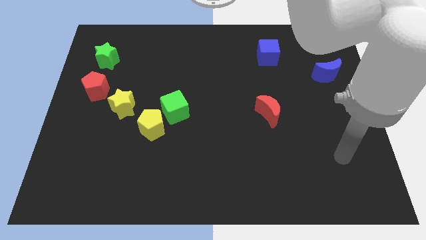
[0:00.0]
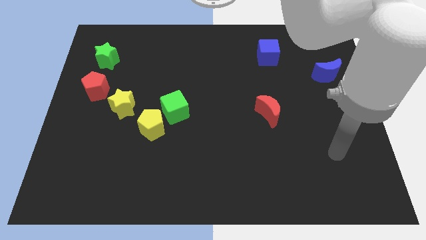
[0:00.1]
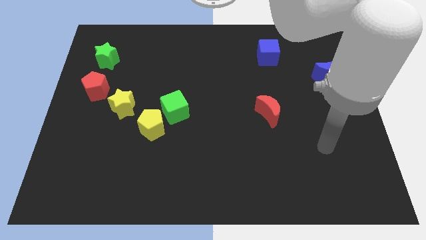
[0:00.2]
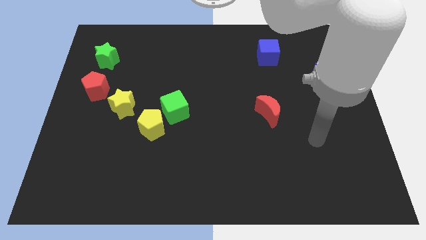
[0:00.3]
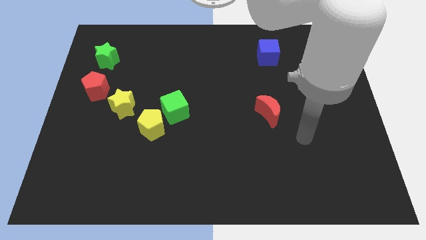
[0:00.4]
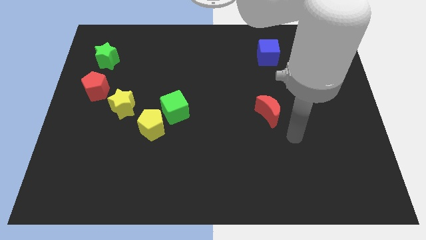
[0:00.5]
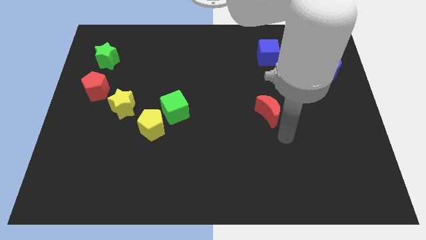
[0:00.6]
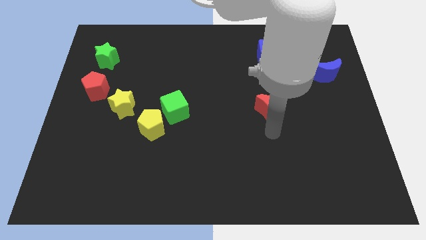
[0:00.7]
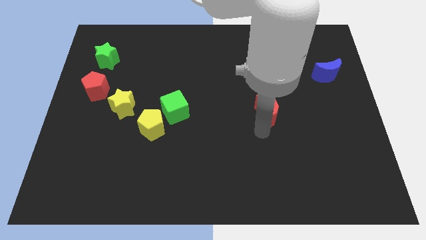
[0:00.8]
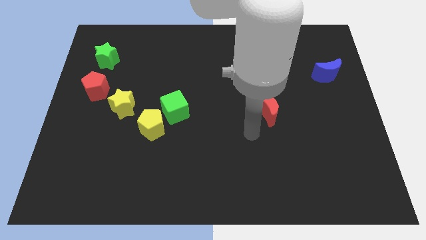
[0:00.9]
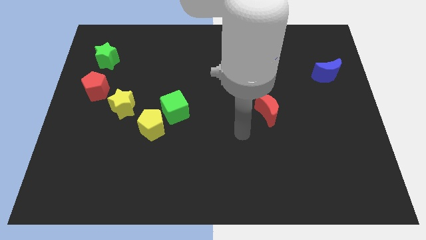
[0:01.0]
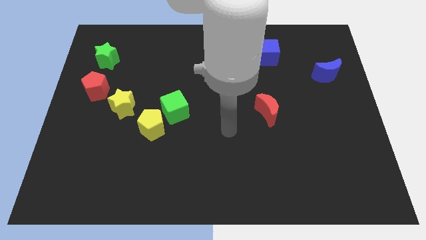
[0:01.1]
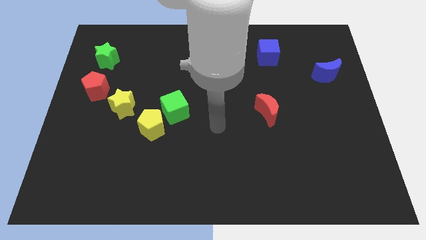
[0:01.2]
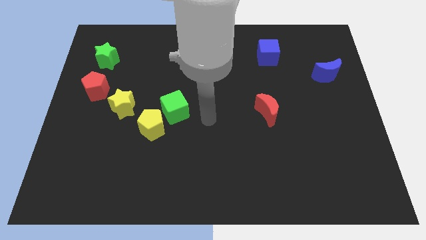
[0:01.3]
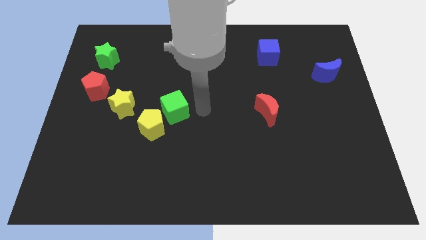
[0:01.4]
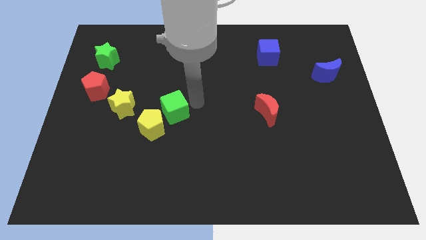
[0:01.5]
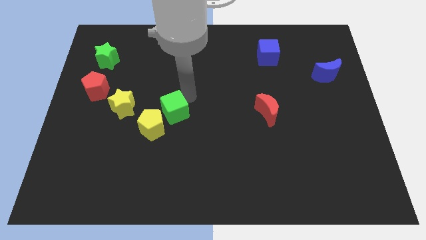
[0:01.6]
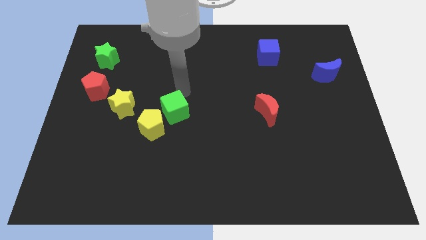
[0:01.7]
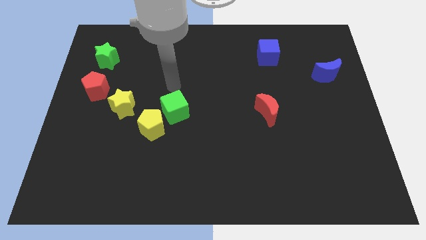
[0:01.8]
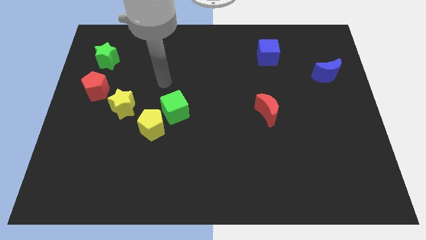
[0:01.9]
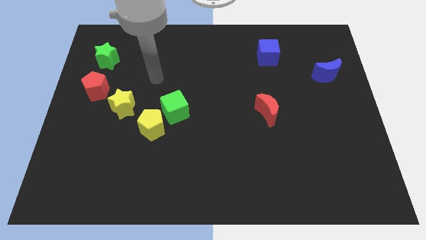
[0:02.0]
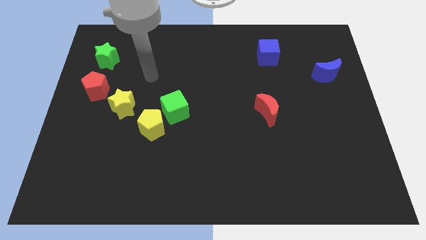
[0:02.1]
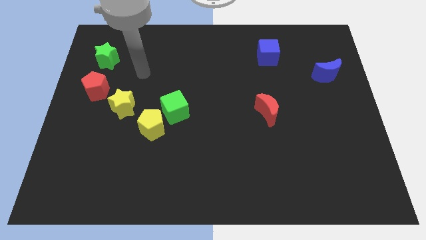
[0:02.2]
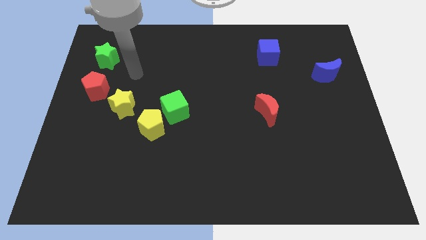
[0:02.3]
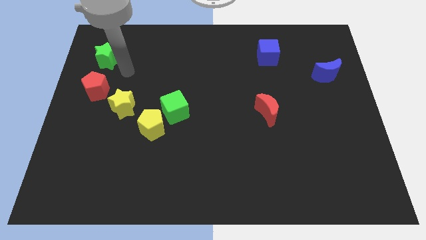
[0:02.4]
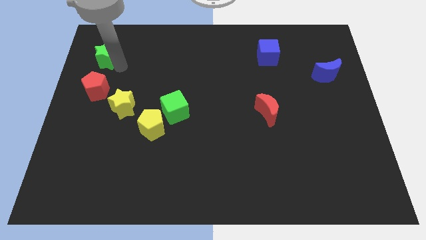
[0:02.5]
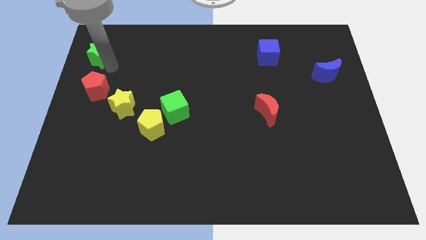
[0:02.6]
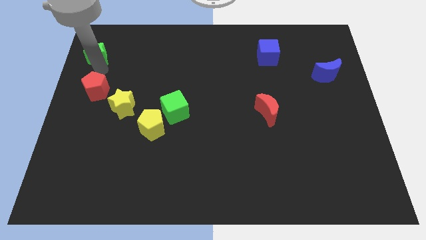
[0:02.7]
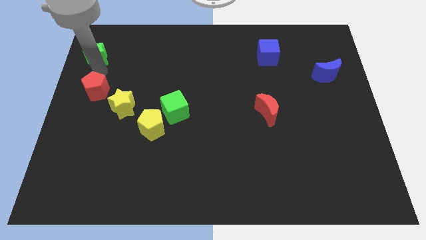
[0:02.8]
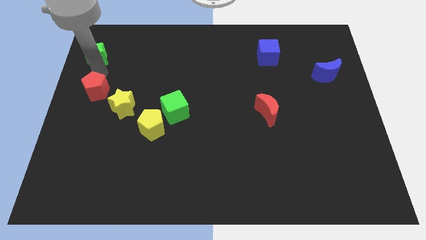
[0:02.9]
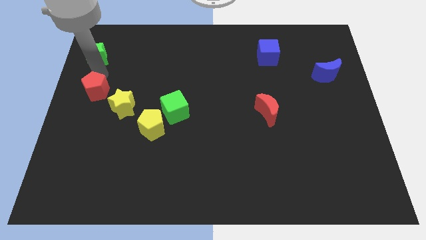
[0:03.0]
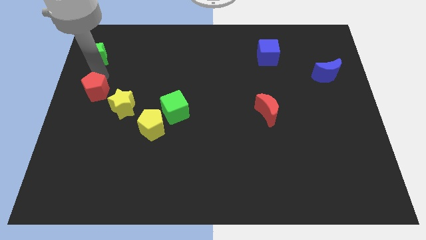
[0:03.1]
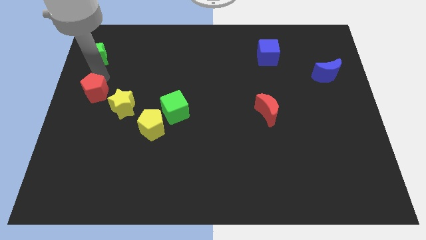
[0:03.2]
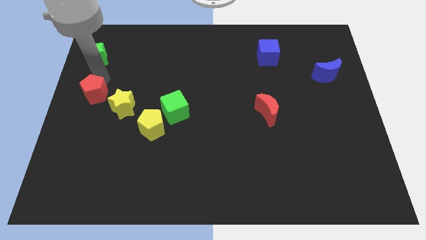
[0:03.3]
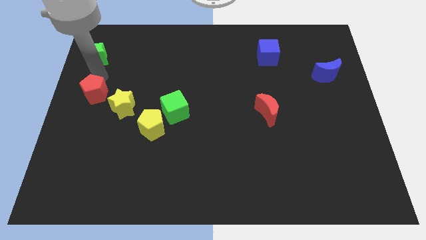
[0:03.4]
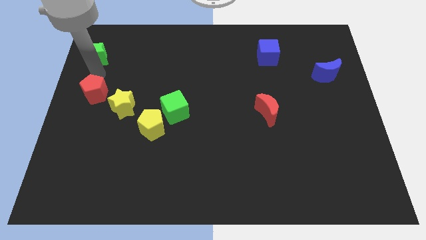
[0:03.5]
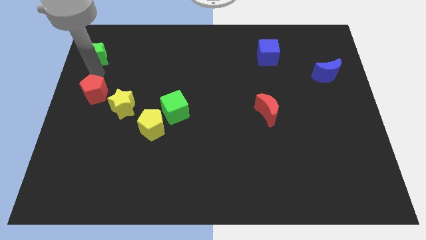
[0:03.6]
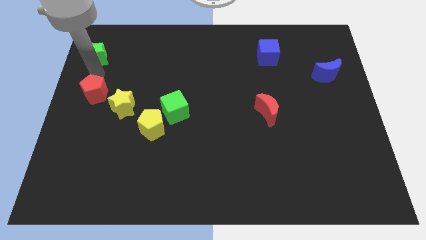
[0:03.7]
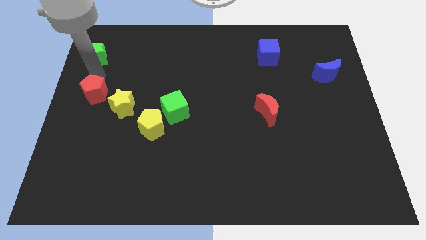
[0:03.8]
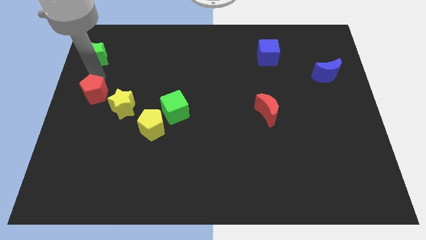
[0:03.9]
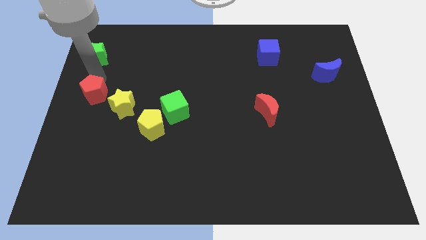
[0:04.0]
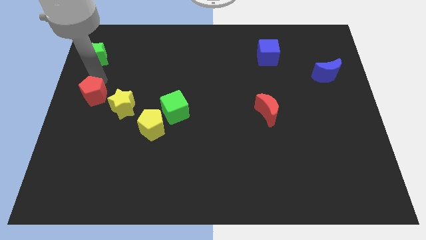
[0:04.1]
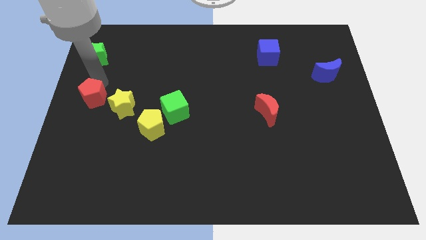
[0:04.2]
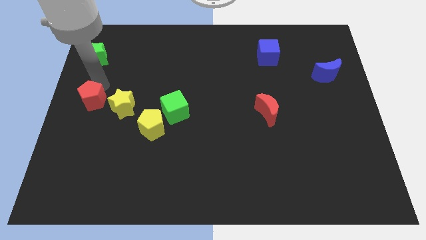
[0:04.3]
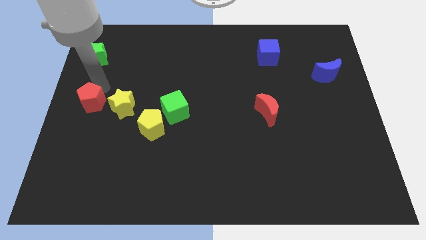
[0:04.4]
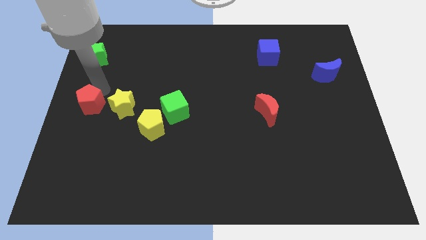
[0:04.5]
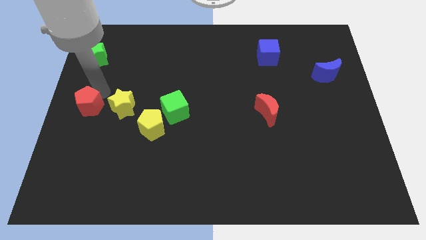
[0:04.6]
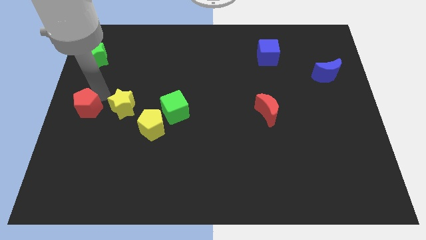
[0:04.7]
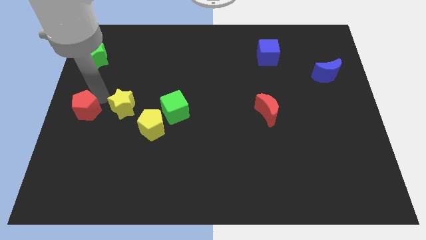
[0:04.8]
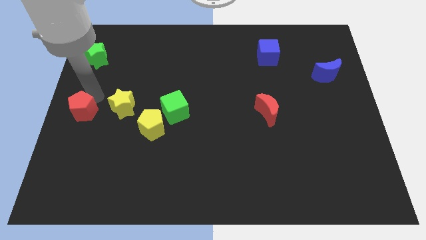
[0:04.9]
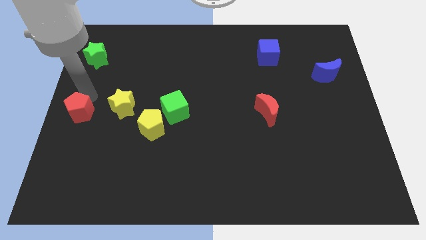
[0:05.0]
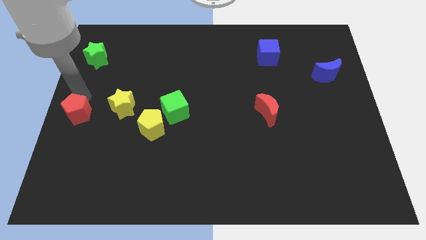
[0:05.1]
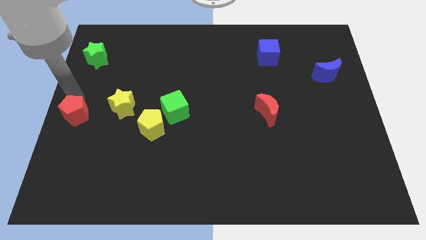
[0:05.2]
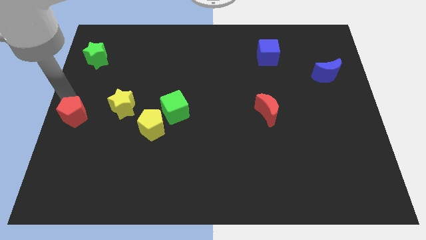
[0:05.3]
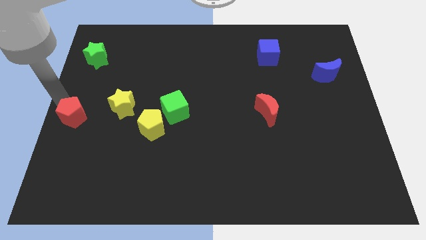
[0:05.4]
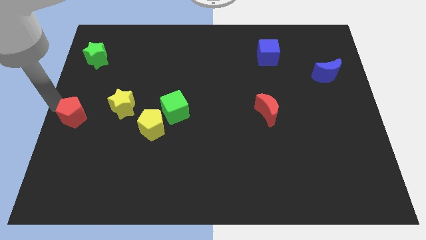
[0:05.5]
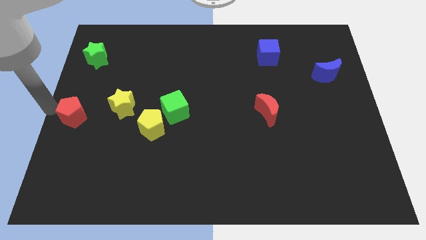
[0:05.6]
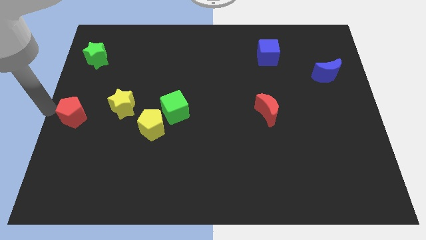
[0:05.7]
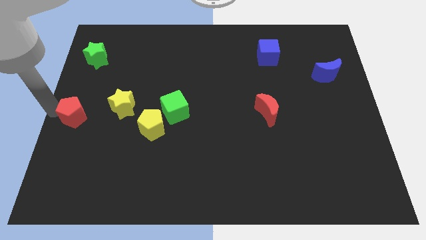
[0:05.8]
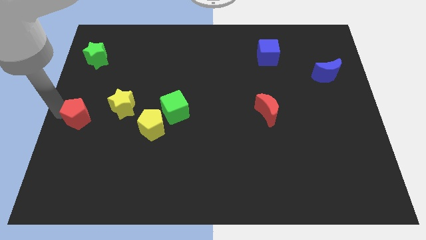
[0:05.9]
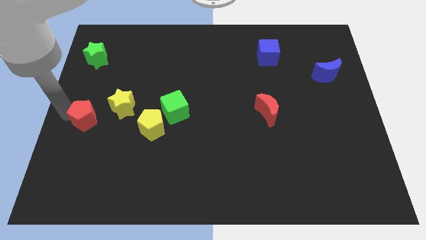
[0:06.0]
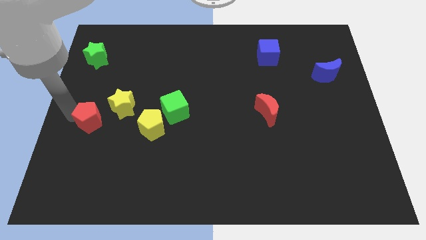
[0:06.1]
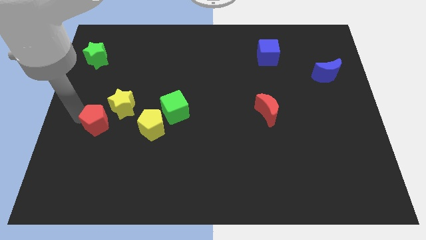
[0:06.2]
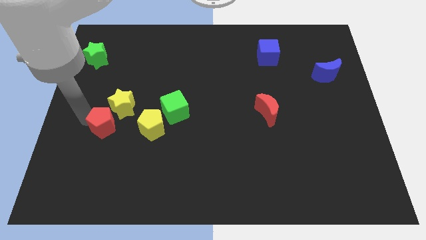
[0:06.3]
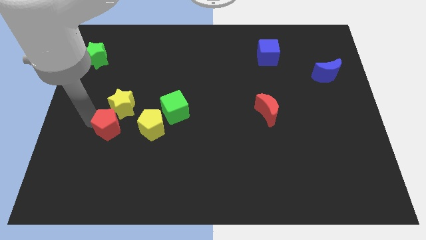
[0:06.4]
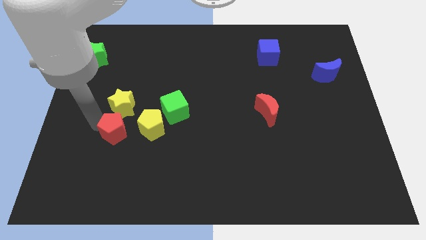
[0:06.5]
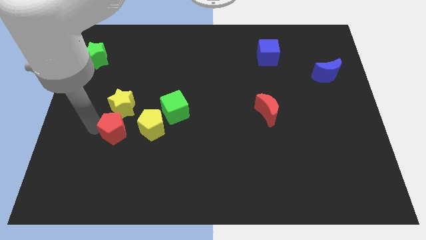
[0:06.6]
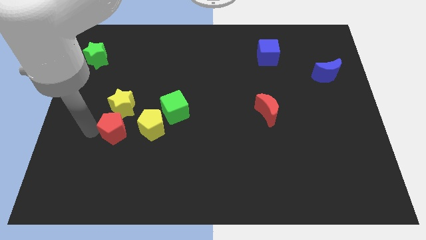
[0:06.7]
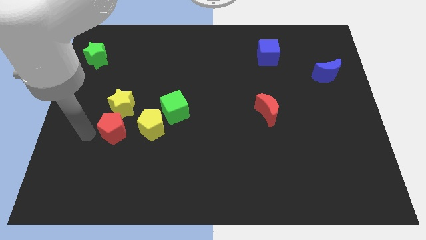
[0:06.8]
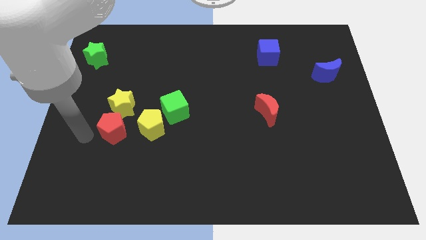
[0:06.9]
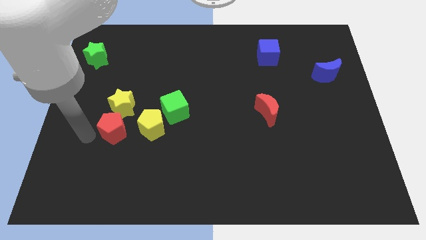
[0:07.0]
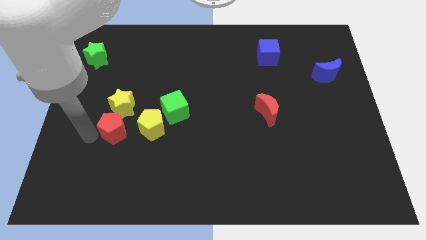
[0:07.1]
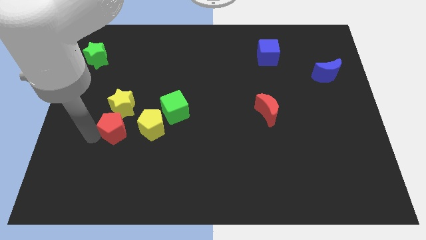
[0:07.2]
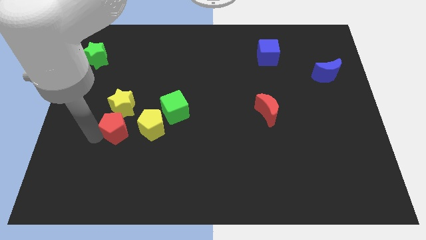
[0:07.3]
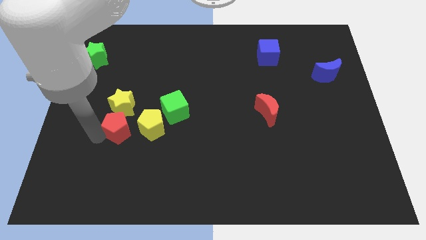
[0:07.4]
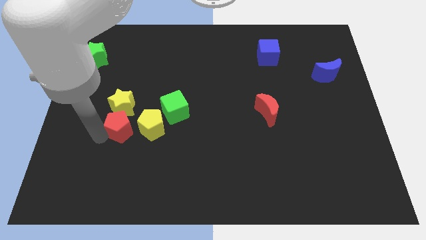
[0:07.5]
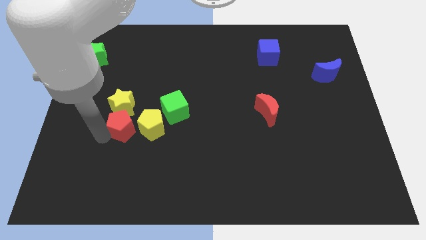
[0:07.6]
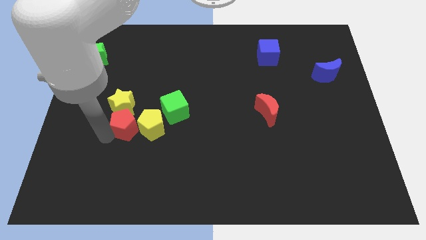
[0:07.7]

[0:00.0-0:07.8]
put the red pentagon towards the yellow pentagon
